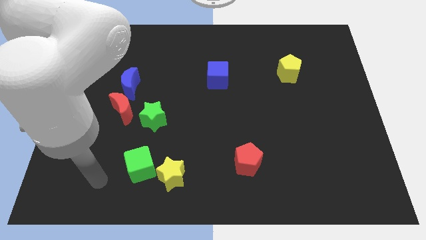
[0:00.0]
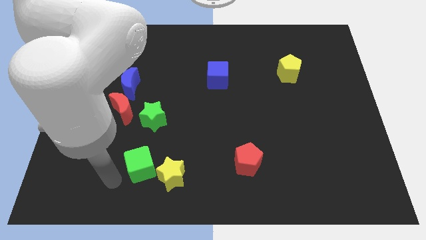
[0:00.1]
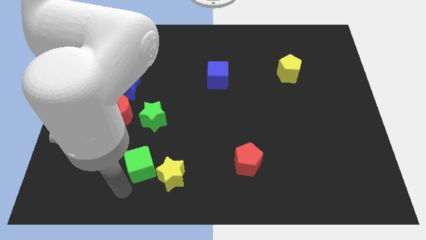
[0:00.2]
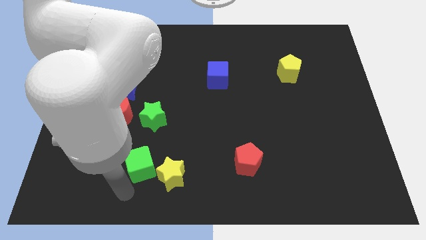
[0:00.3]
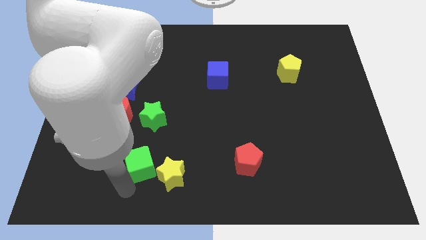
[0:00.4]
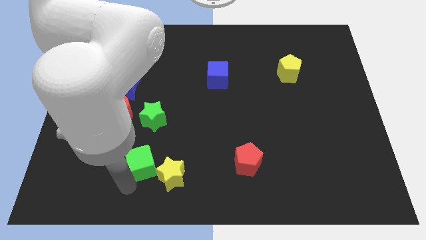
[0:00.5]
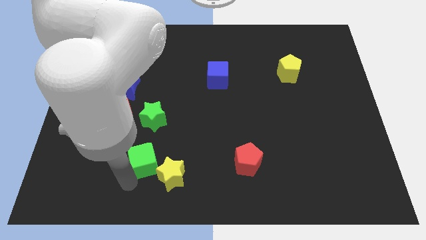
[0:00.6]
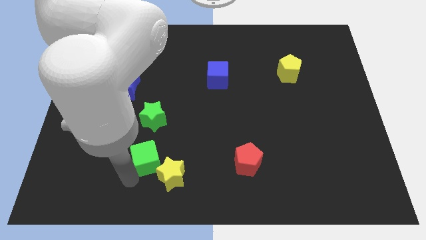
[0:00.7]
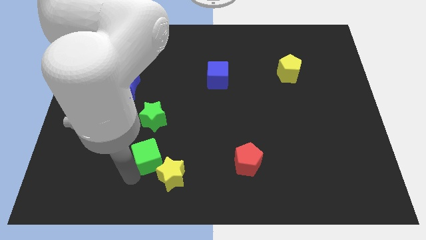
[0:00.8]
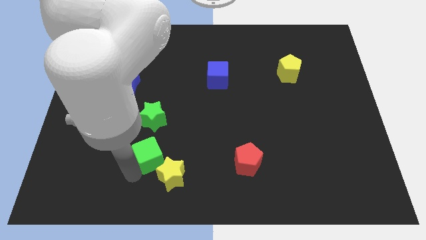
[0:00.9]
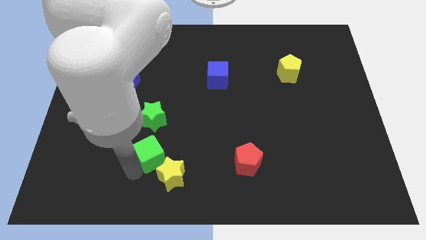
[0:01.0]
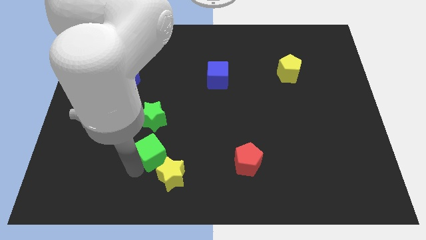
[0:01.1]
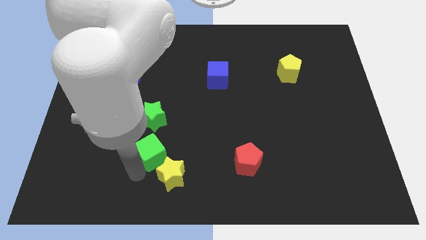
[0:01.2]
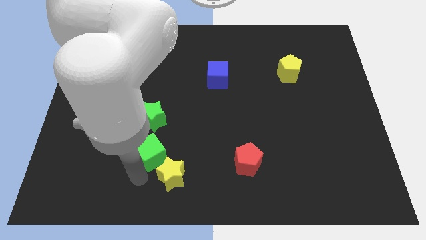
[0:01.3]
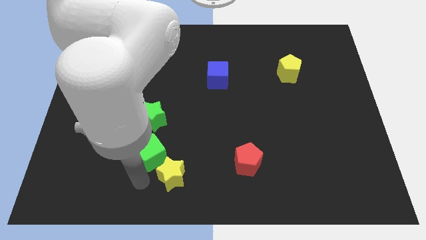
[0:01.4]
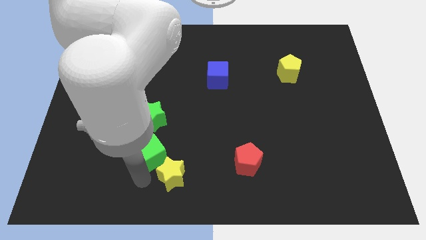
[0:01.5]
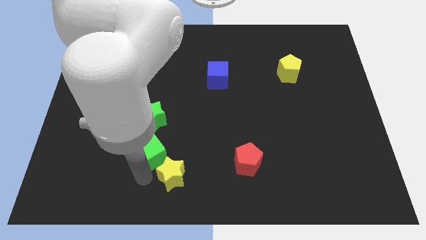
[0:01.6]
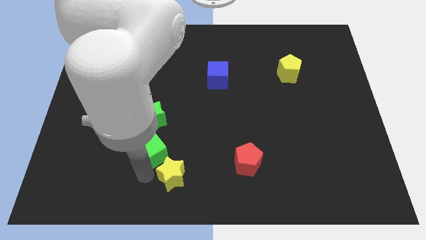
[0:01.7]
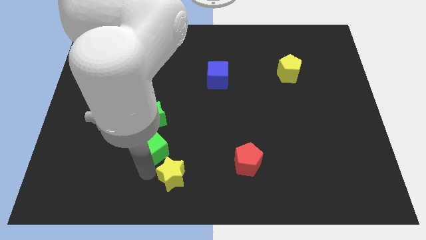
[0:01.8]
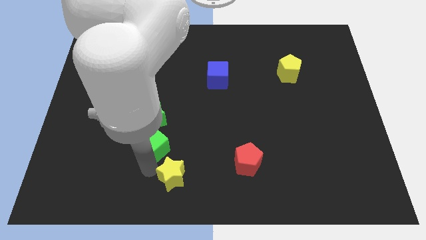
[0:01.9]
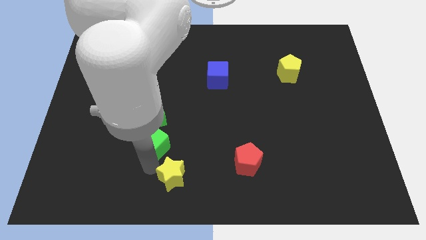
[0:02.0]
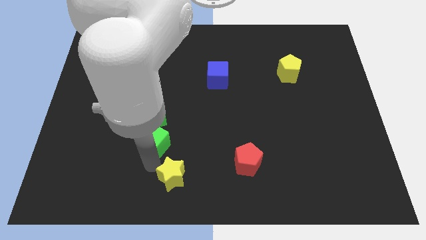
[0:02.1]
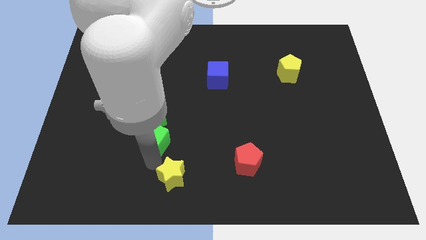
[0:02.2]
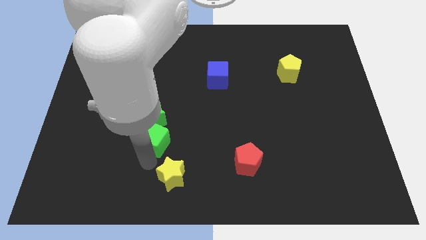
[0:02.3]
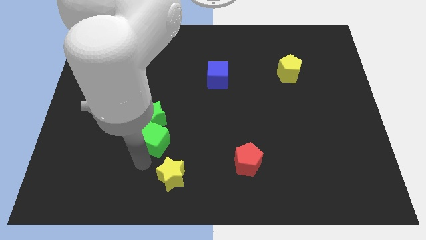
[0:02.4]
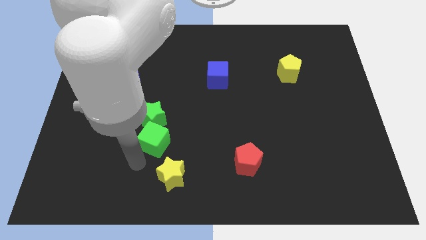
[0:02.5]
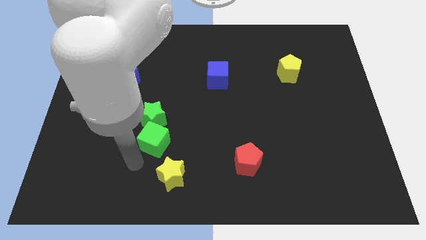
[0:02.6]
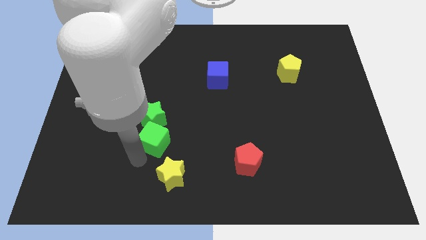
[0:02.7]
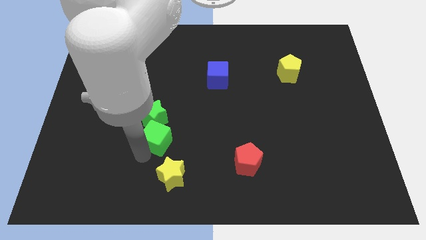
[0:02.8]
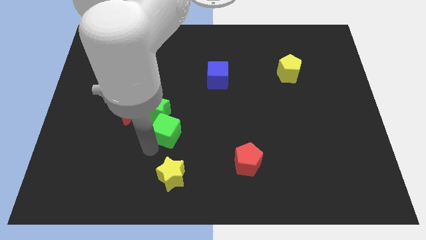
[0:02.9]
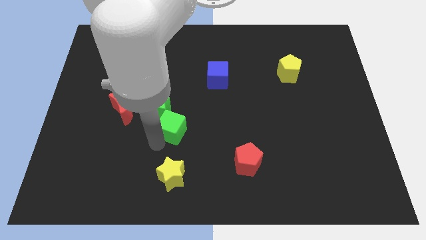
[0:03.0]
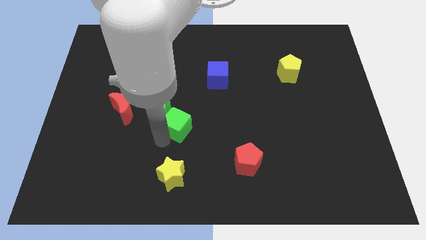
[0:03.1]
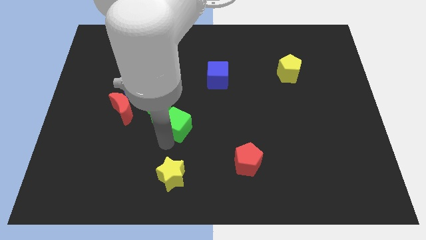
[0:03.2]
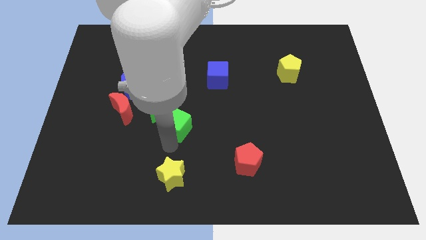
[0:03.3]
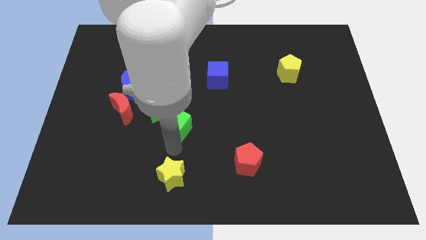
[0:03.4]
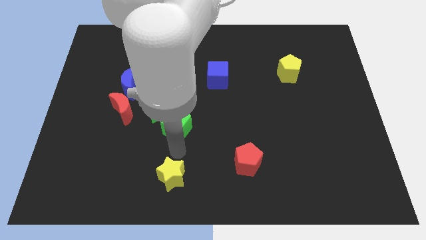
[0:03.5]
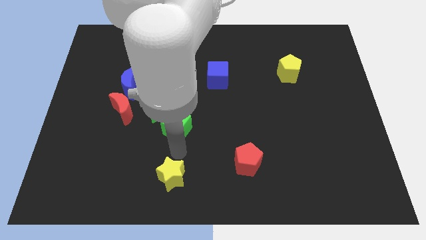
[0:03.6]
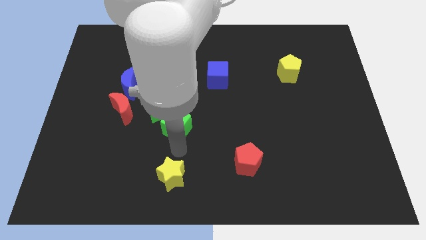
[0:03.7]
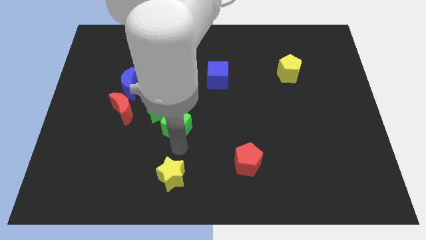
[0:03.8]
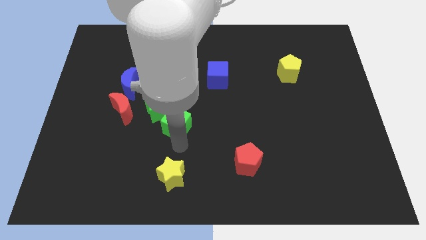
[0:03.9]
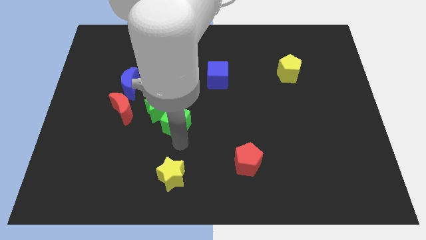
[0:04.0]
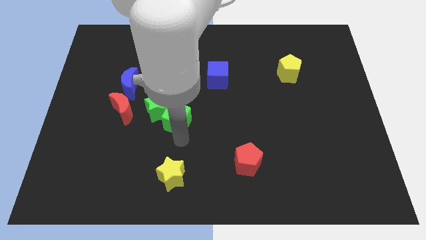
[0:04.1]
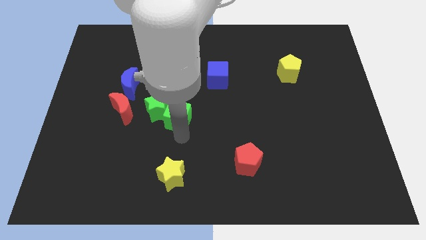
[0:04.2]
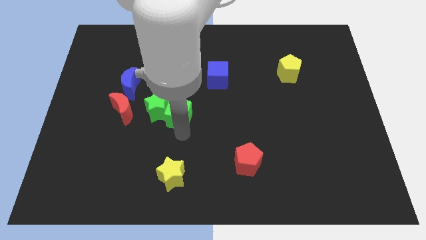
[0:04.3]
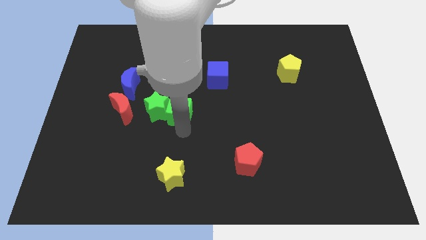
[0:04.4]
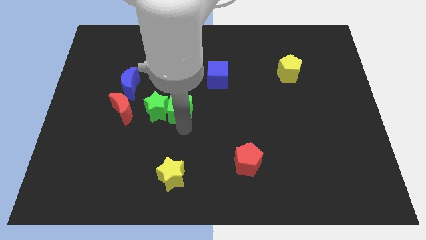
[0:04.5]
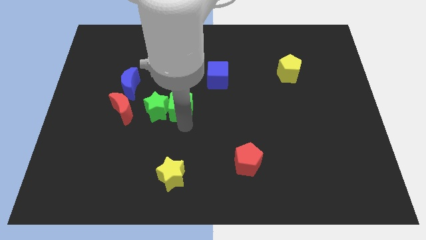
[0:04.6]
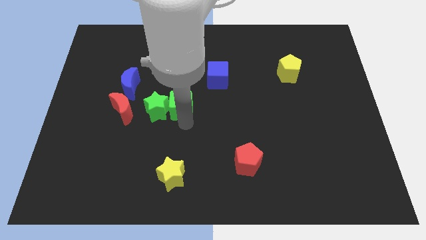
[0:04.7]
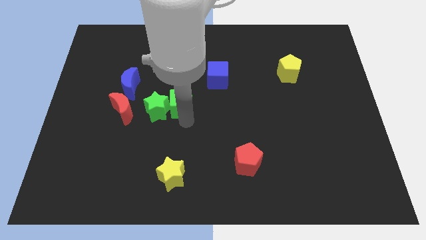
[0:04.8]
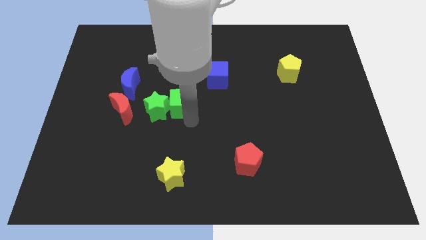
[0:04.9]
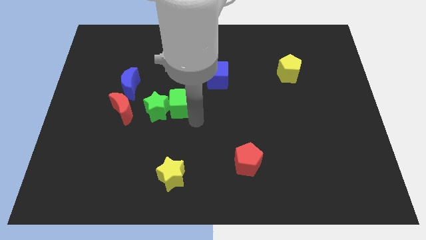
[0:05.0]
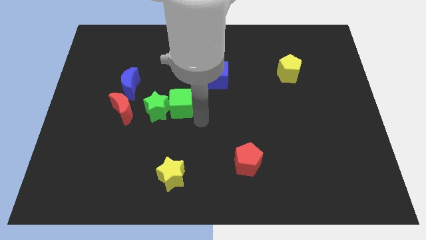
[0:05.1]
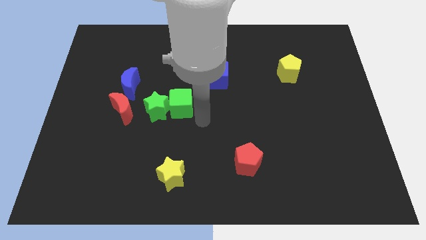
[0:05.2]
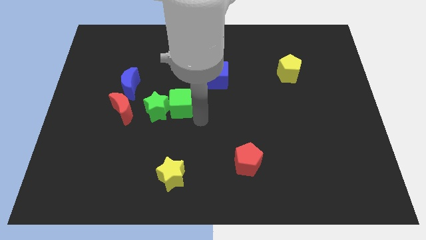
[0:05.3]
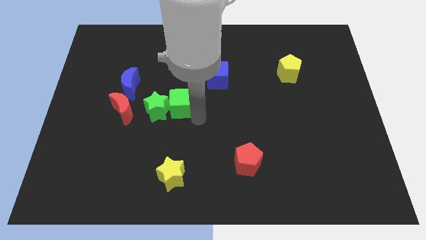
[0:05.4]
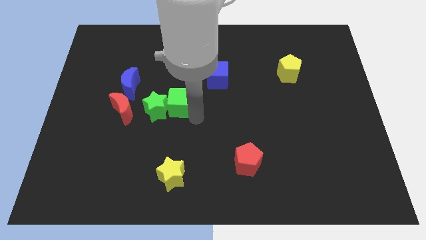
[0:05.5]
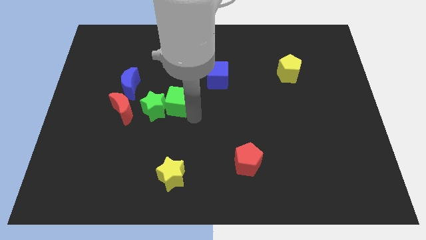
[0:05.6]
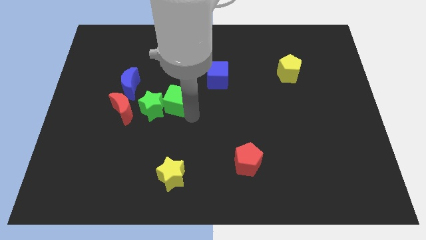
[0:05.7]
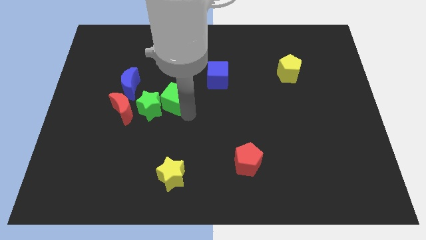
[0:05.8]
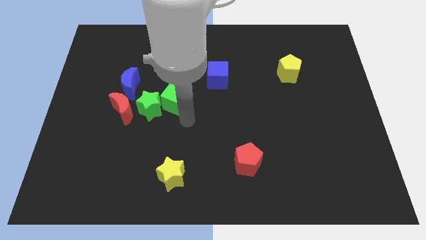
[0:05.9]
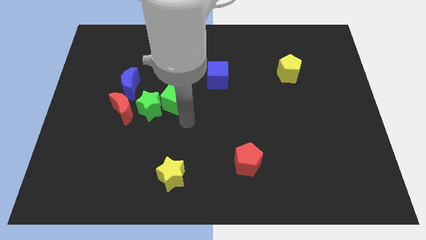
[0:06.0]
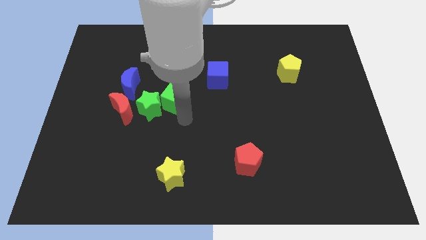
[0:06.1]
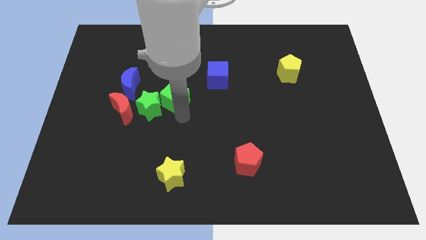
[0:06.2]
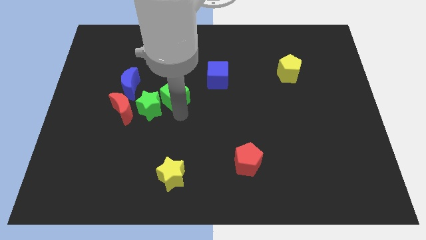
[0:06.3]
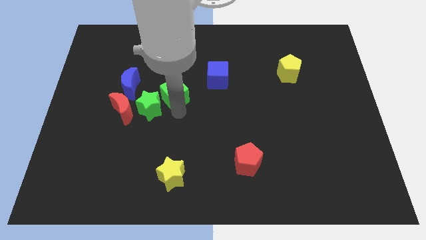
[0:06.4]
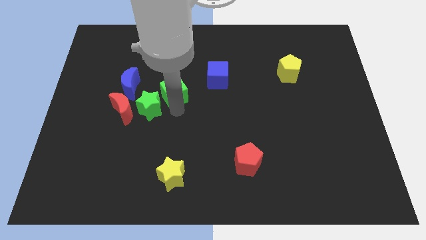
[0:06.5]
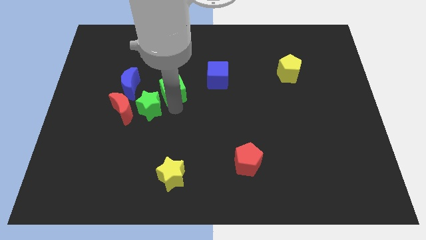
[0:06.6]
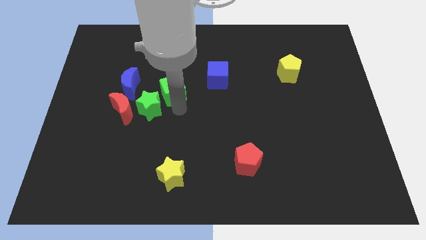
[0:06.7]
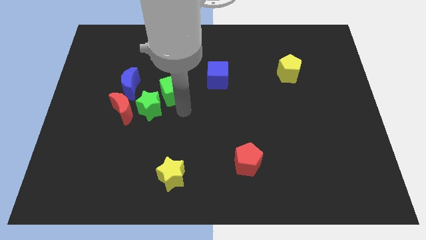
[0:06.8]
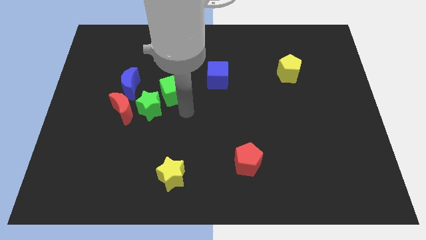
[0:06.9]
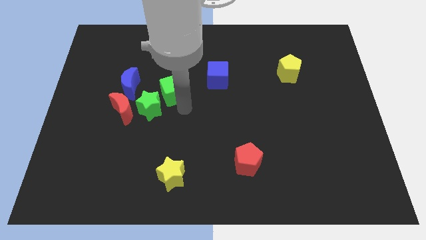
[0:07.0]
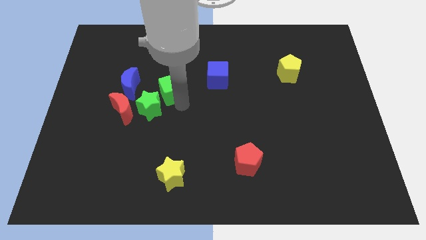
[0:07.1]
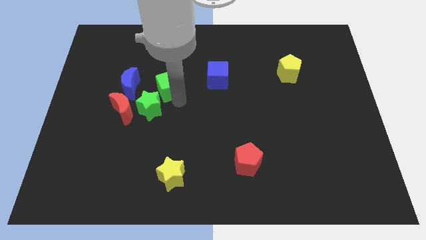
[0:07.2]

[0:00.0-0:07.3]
slide the green cube up

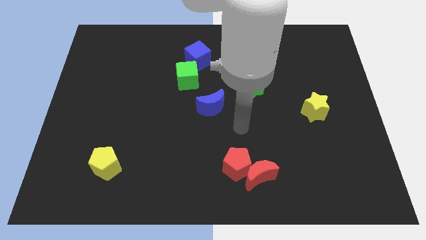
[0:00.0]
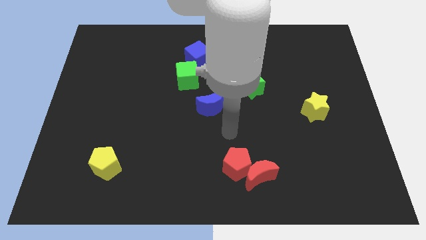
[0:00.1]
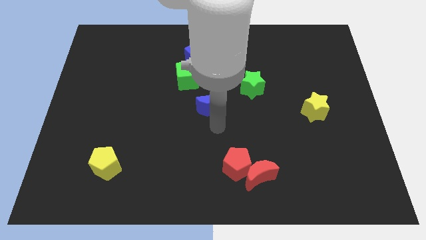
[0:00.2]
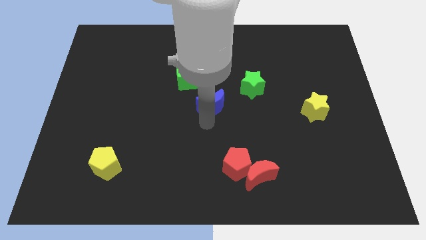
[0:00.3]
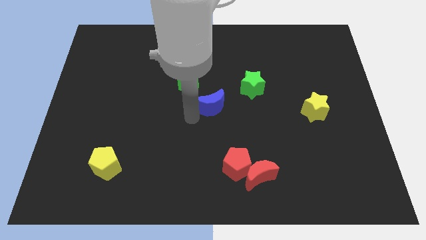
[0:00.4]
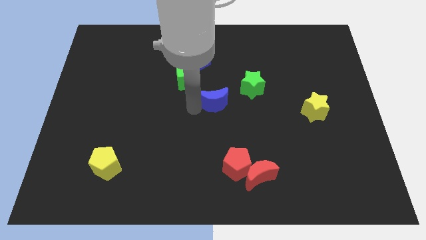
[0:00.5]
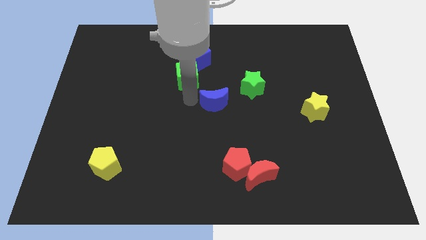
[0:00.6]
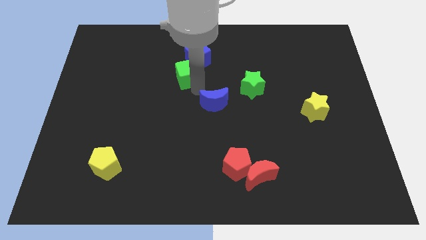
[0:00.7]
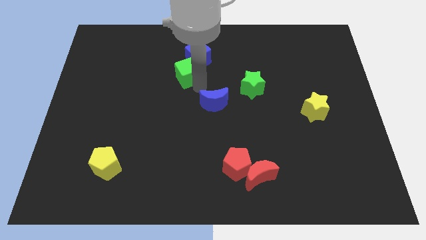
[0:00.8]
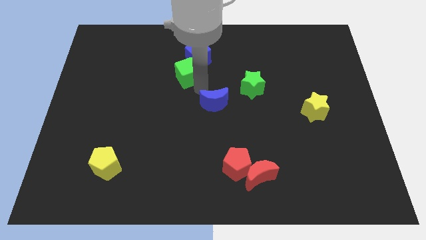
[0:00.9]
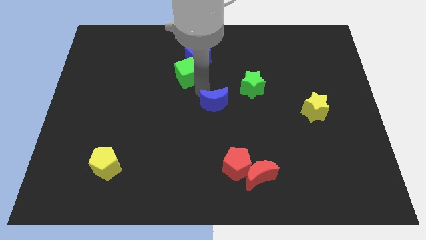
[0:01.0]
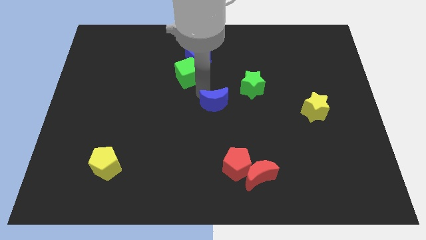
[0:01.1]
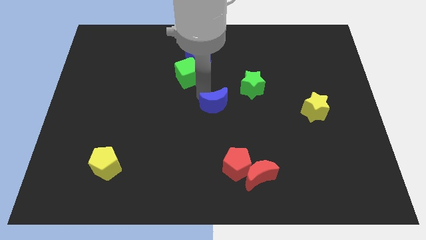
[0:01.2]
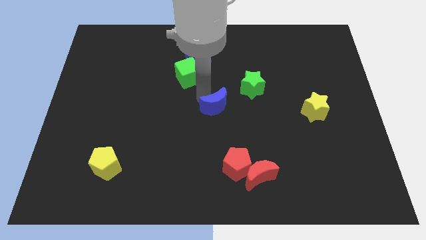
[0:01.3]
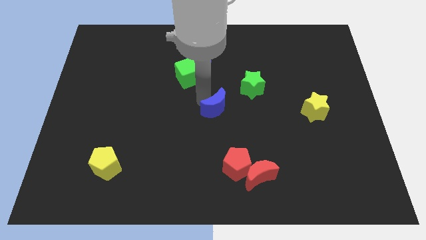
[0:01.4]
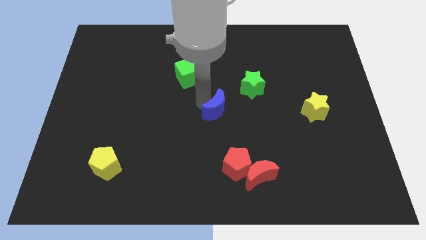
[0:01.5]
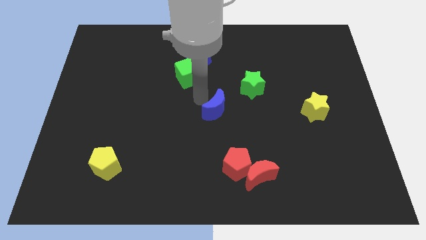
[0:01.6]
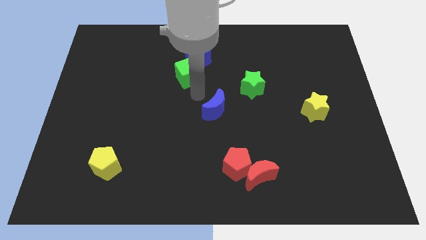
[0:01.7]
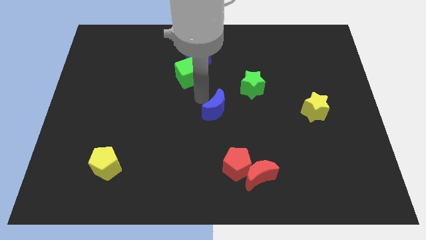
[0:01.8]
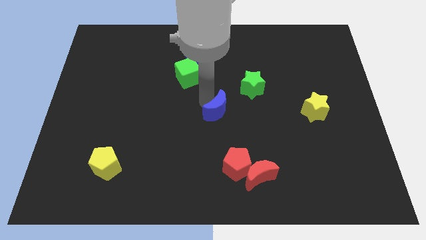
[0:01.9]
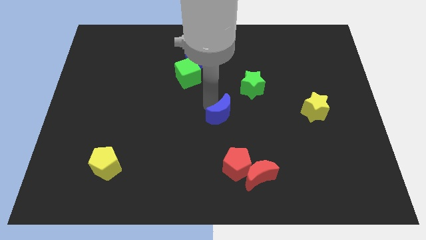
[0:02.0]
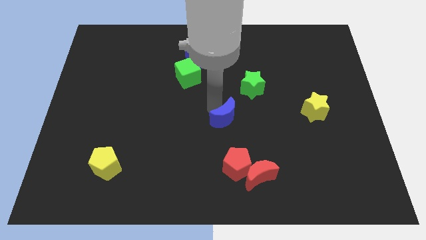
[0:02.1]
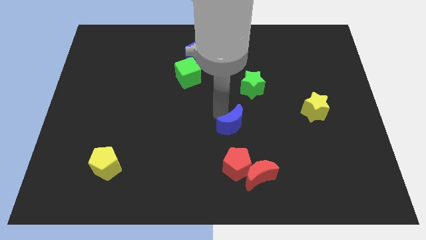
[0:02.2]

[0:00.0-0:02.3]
slide the blue moon a bit downwards and to the right diagonally
